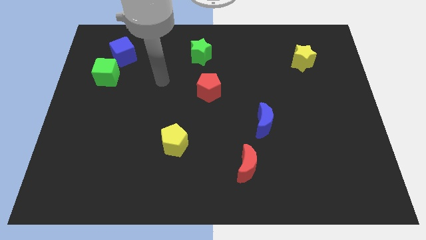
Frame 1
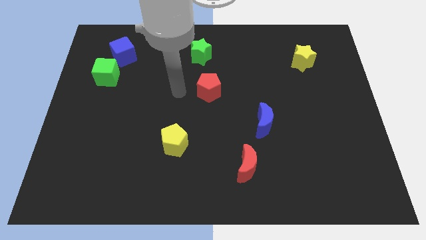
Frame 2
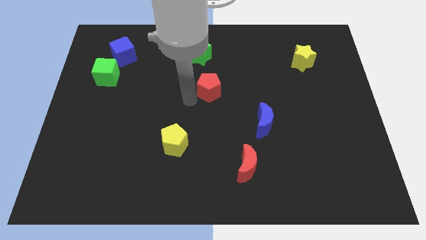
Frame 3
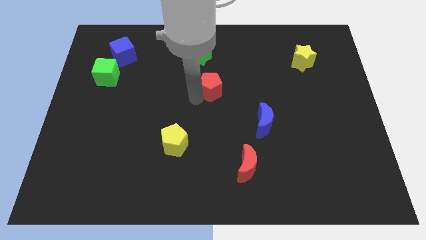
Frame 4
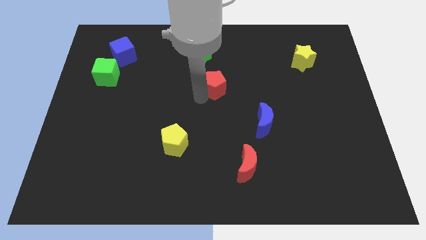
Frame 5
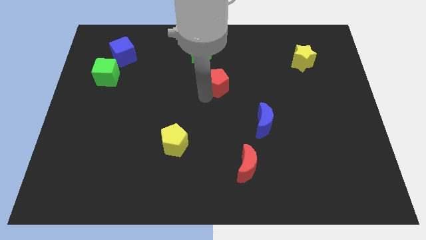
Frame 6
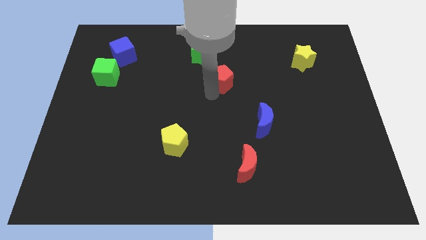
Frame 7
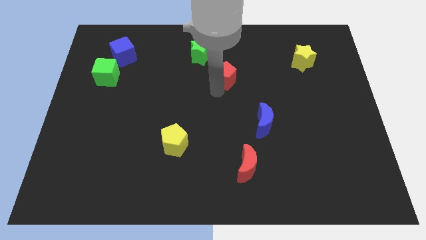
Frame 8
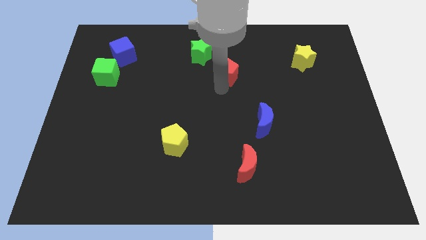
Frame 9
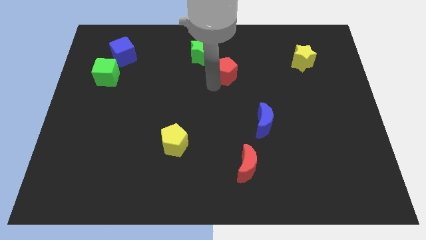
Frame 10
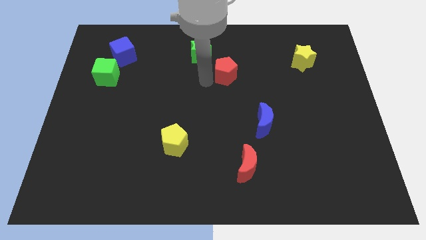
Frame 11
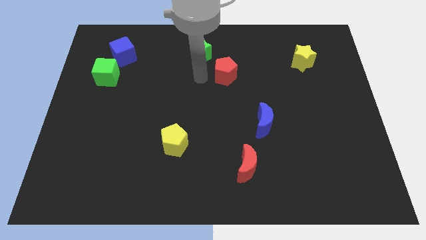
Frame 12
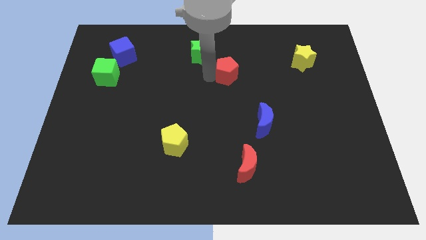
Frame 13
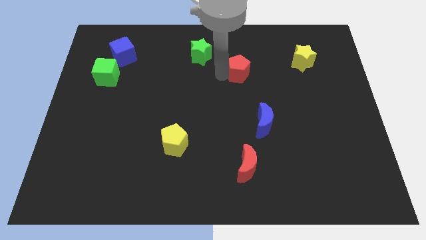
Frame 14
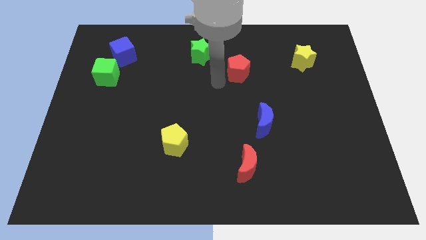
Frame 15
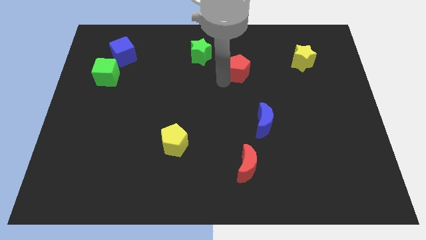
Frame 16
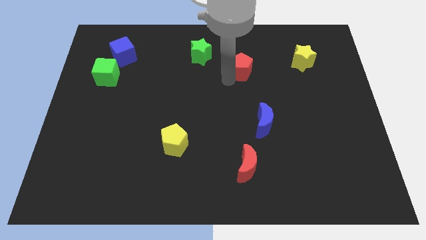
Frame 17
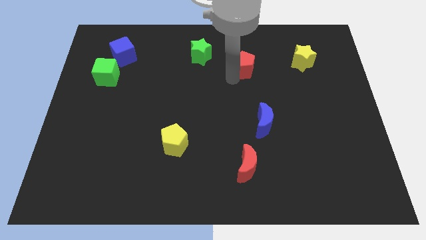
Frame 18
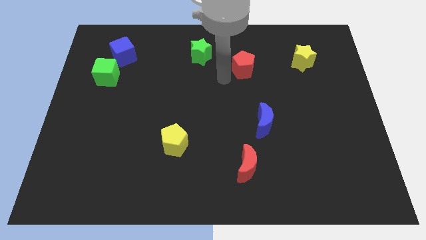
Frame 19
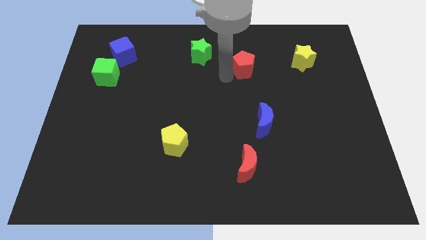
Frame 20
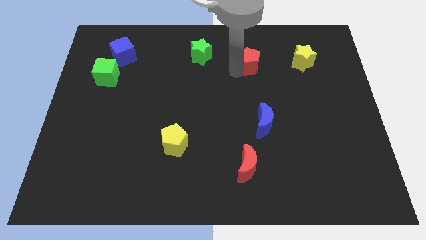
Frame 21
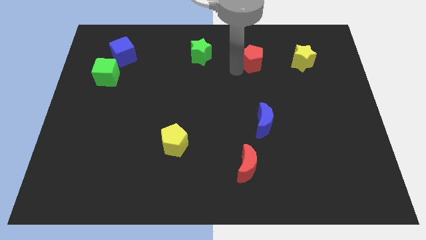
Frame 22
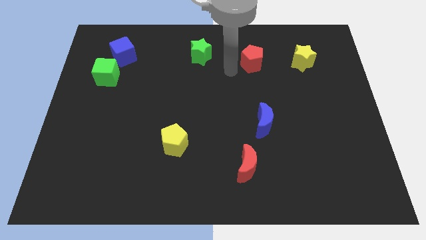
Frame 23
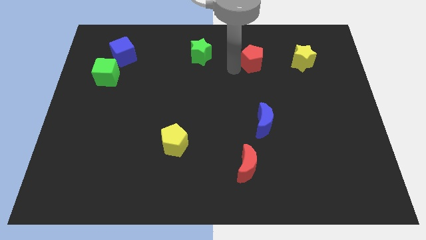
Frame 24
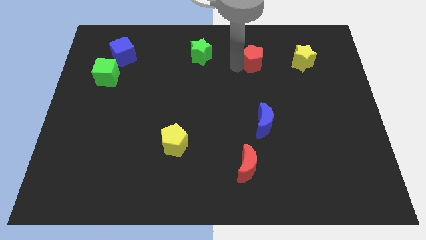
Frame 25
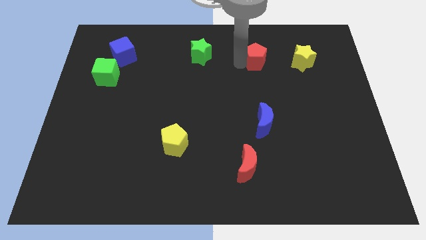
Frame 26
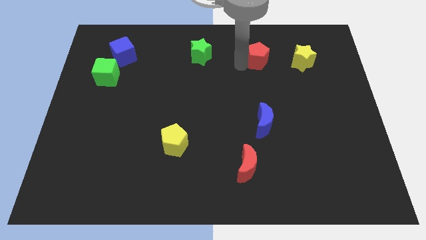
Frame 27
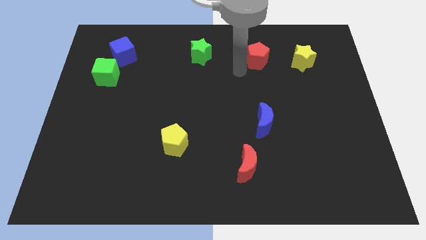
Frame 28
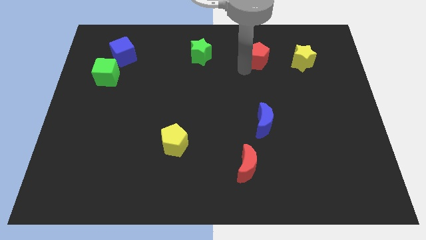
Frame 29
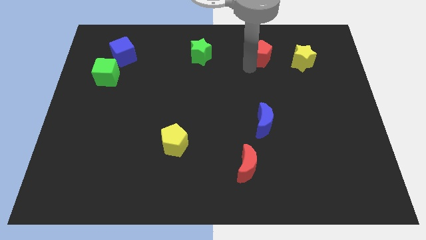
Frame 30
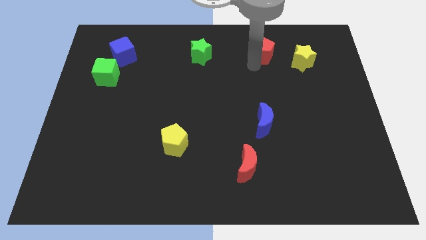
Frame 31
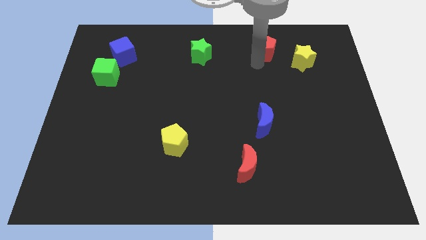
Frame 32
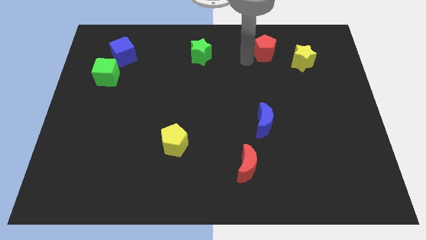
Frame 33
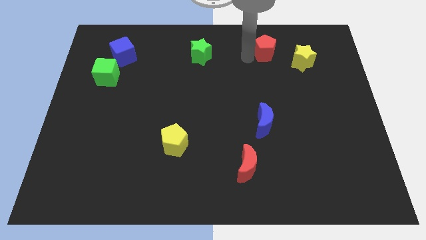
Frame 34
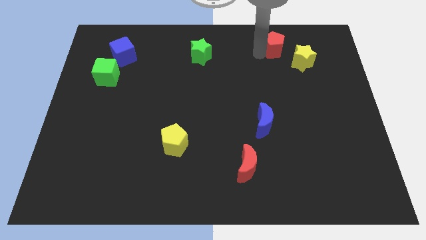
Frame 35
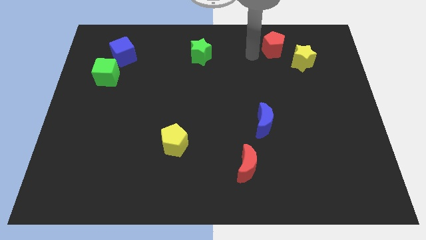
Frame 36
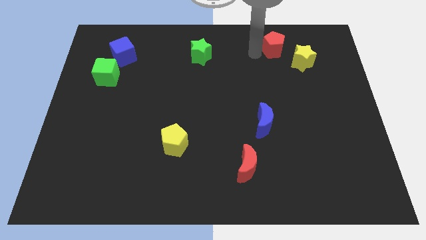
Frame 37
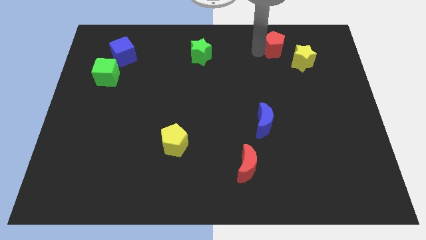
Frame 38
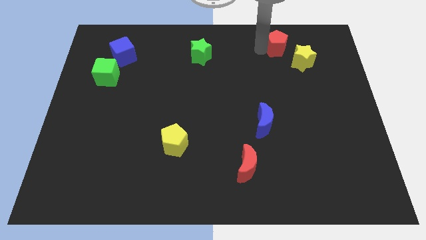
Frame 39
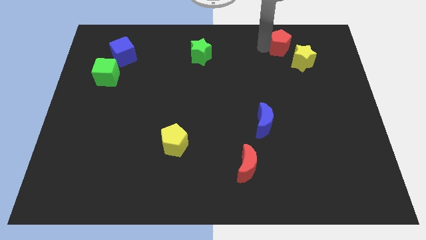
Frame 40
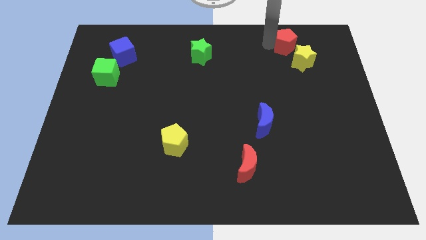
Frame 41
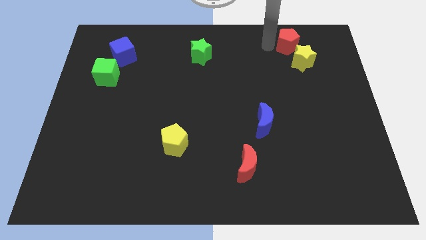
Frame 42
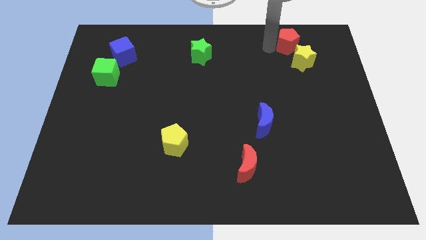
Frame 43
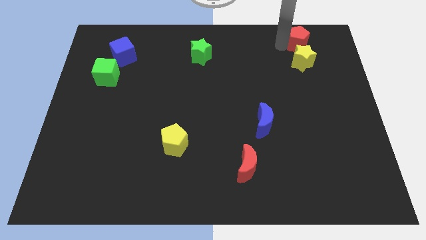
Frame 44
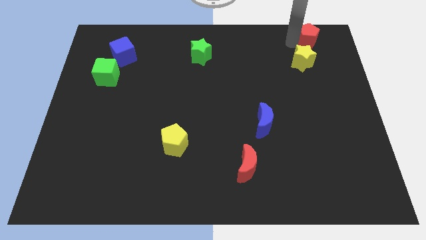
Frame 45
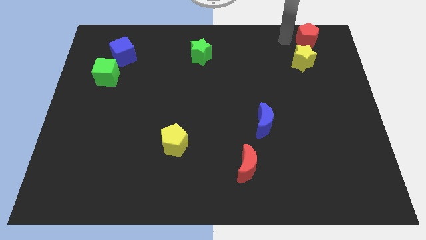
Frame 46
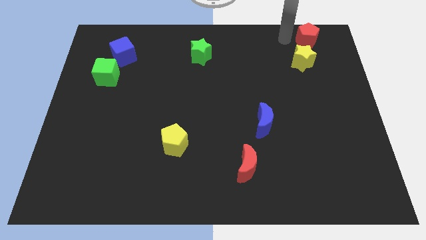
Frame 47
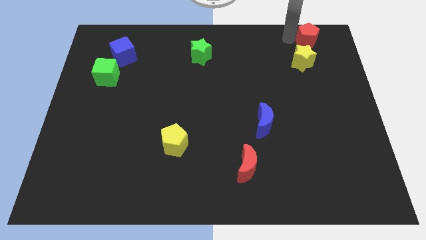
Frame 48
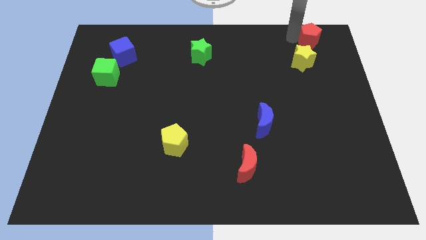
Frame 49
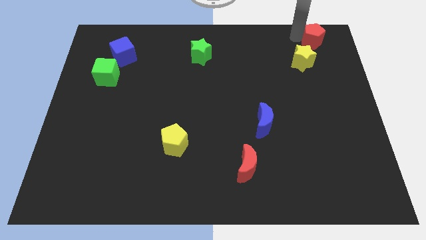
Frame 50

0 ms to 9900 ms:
push the red pentagon to the top right

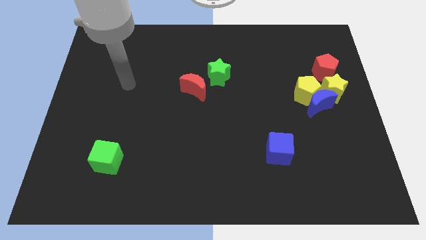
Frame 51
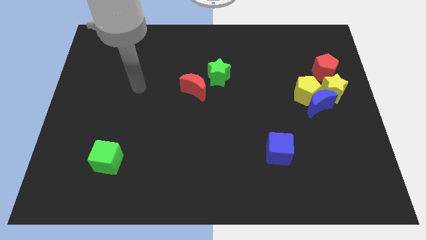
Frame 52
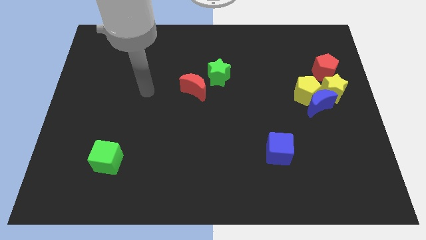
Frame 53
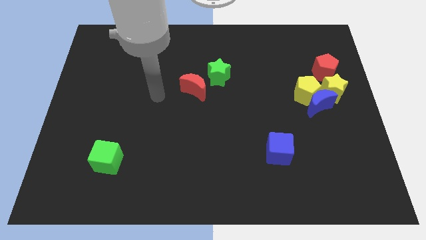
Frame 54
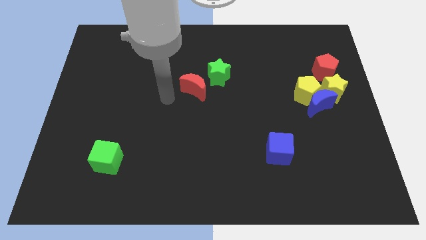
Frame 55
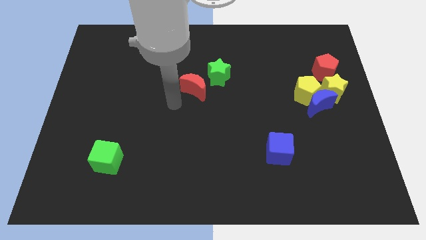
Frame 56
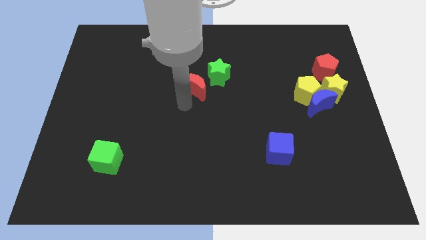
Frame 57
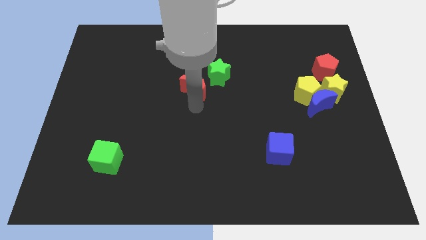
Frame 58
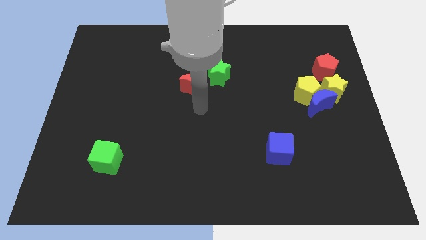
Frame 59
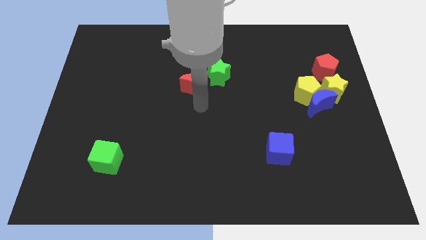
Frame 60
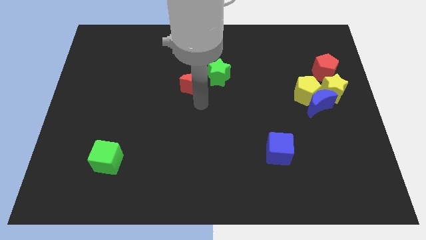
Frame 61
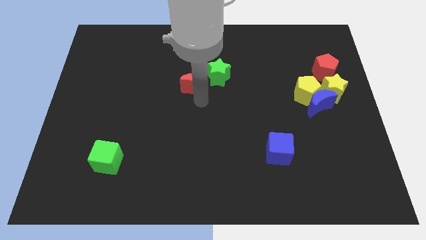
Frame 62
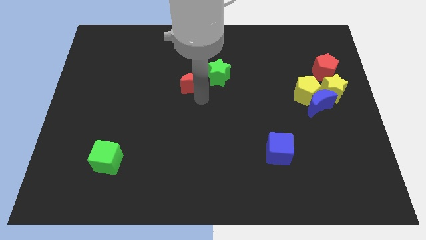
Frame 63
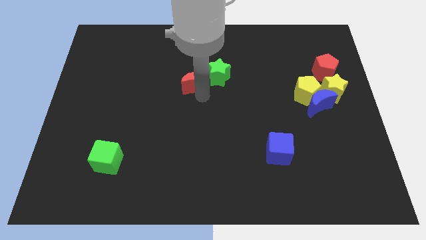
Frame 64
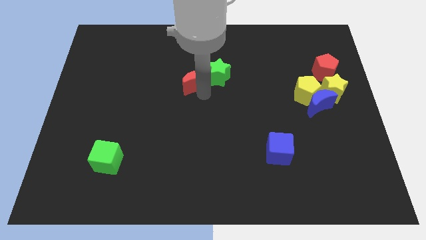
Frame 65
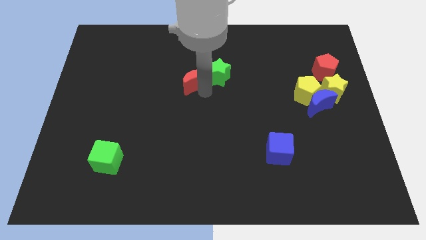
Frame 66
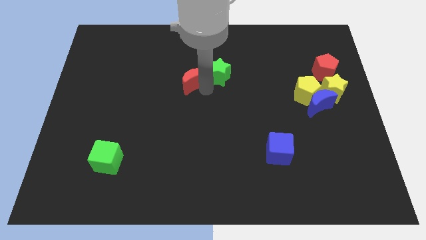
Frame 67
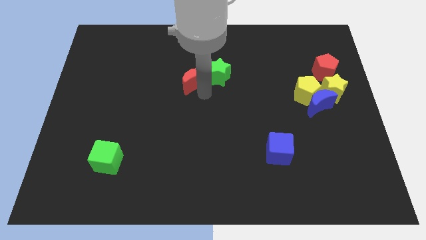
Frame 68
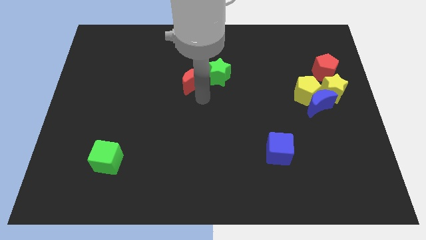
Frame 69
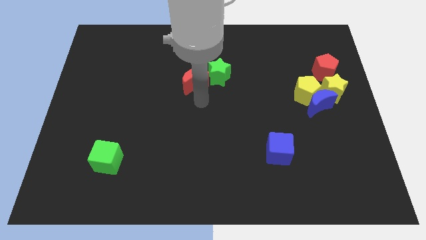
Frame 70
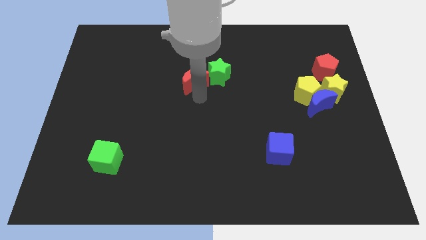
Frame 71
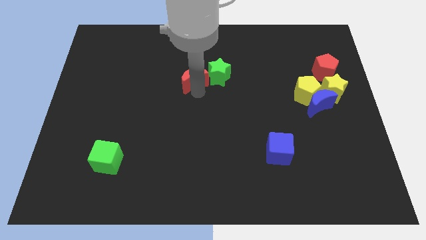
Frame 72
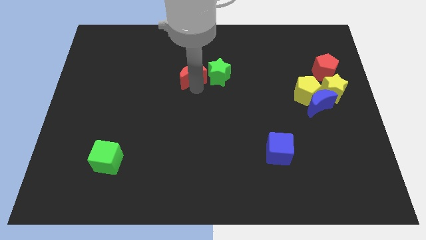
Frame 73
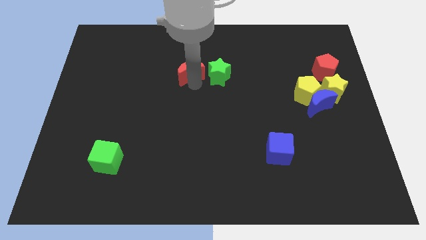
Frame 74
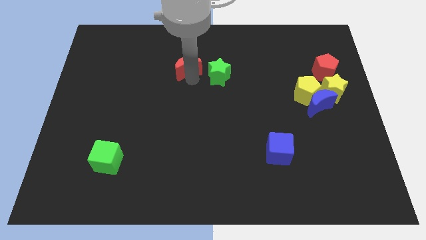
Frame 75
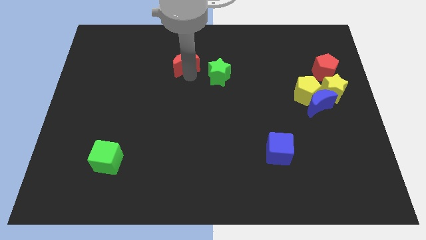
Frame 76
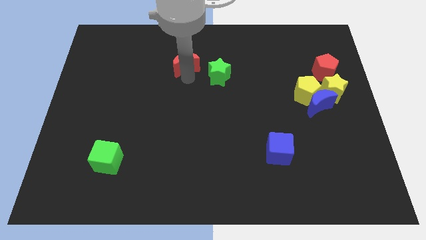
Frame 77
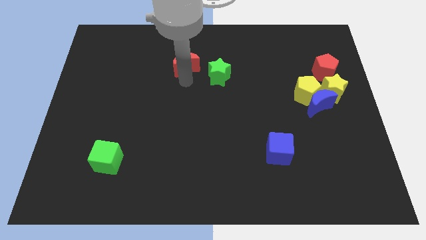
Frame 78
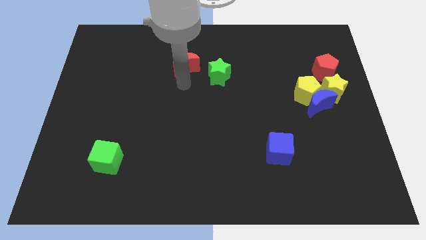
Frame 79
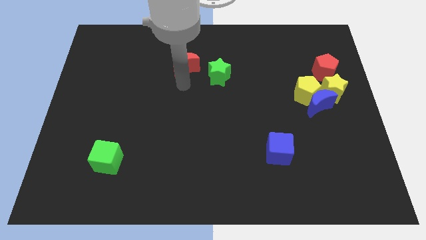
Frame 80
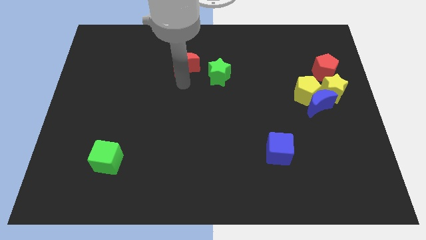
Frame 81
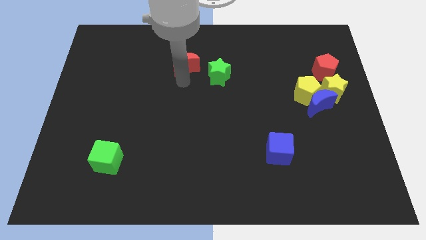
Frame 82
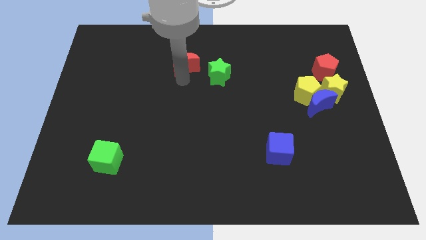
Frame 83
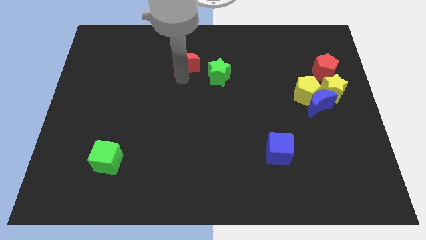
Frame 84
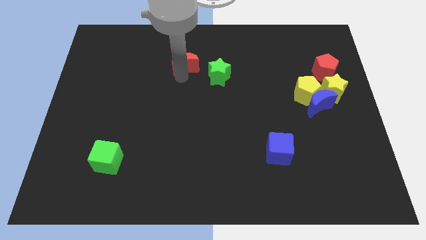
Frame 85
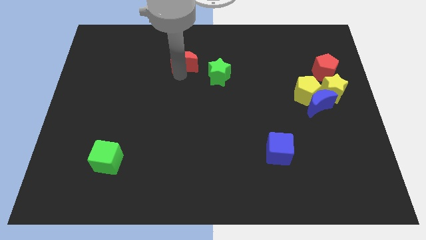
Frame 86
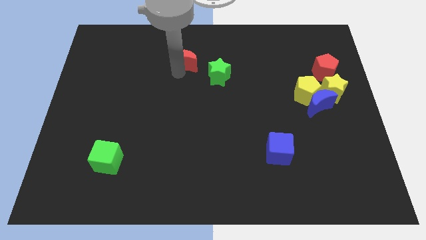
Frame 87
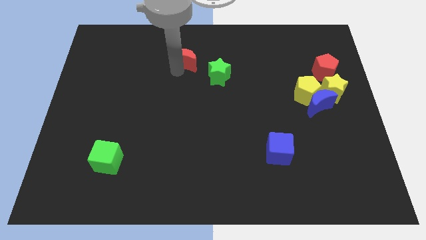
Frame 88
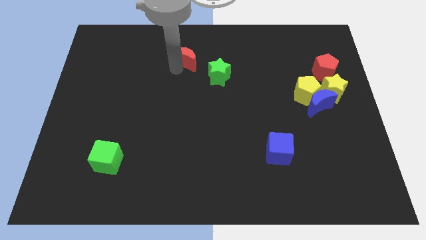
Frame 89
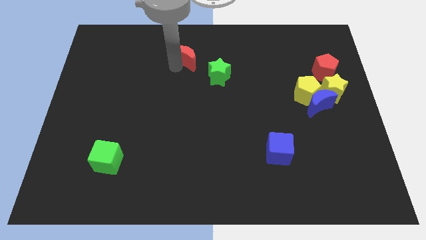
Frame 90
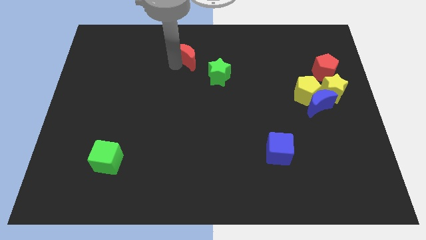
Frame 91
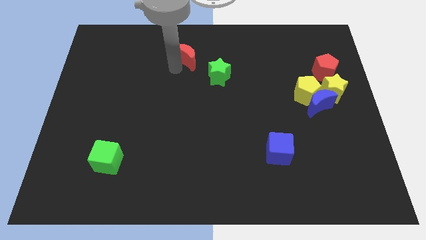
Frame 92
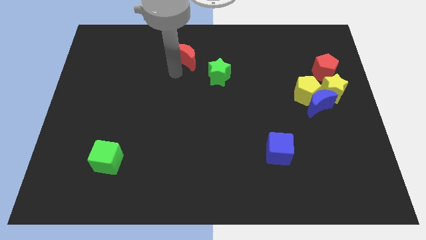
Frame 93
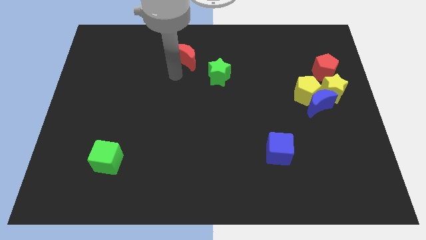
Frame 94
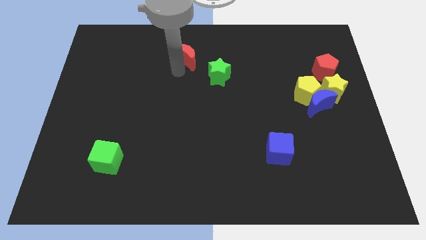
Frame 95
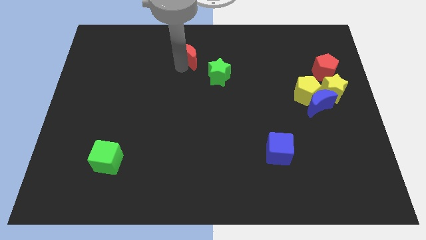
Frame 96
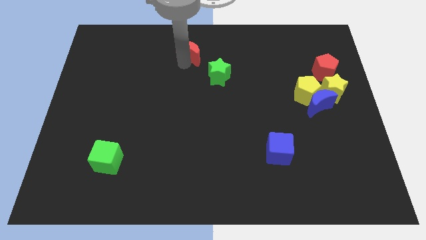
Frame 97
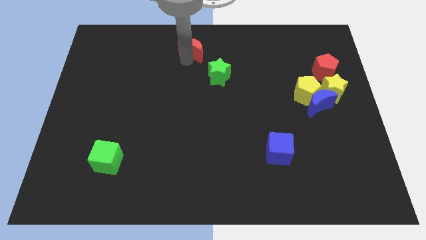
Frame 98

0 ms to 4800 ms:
put the red moon to the top side
